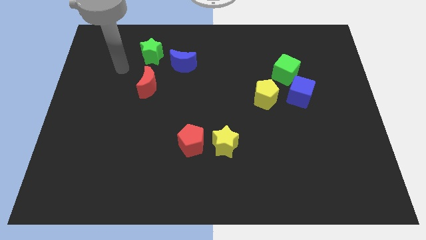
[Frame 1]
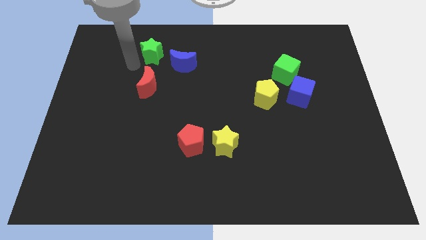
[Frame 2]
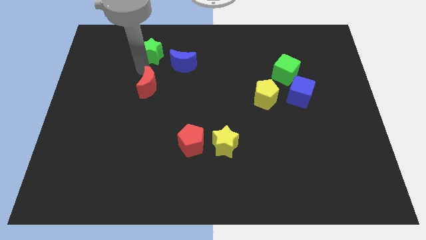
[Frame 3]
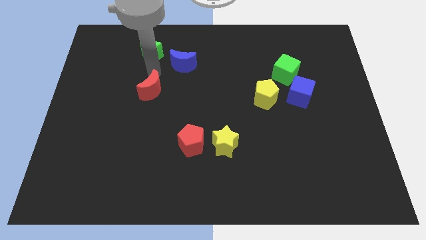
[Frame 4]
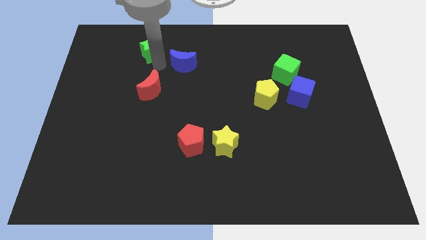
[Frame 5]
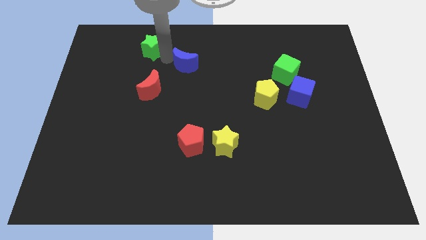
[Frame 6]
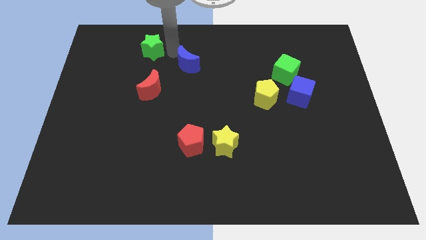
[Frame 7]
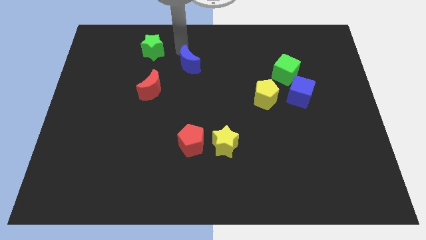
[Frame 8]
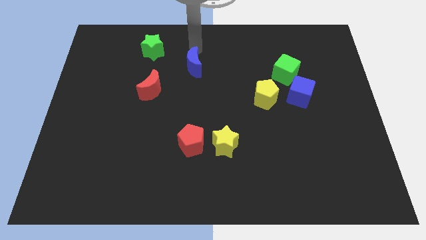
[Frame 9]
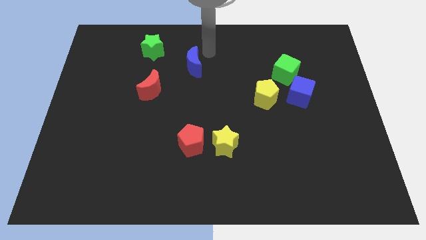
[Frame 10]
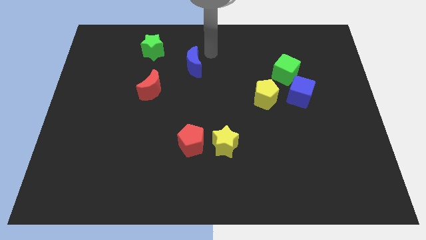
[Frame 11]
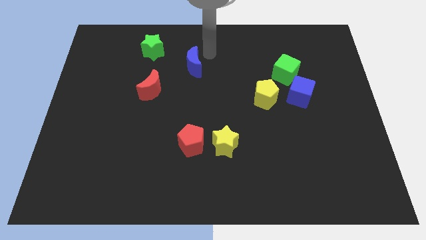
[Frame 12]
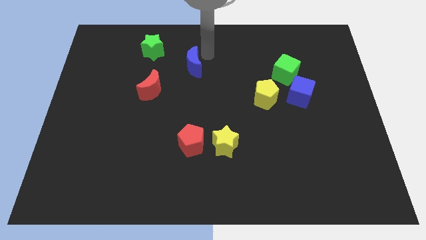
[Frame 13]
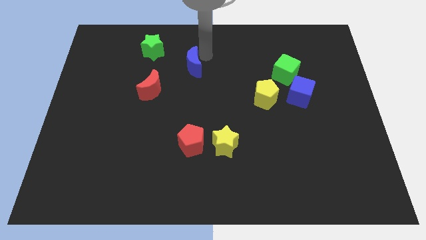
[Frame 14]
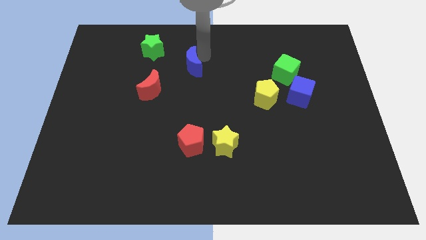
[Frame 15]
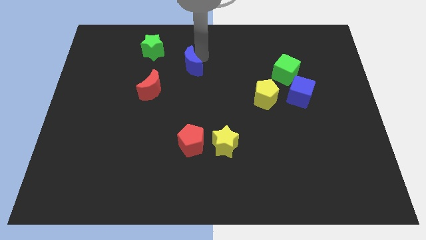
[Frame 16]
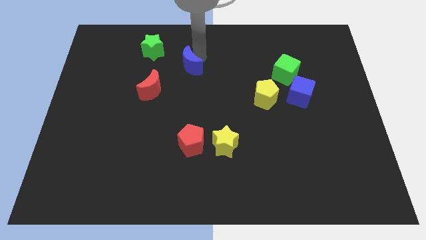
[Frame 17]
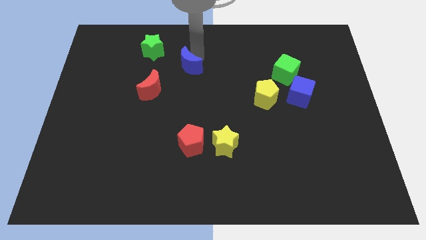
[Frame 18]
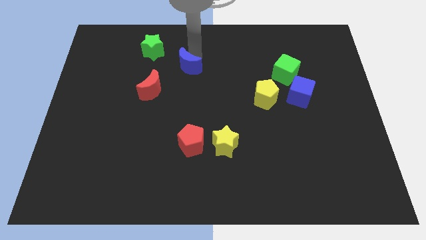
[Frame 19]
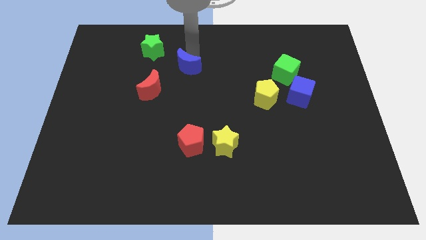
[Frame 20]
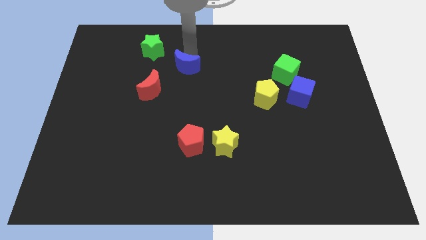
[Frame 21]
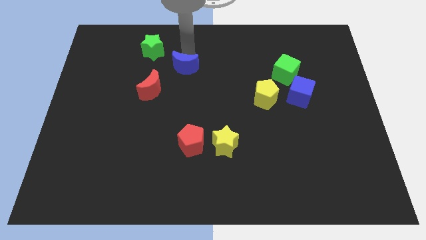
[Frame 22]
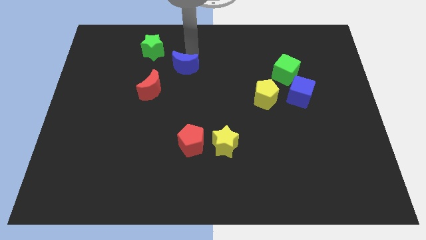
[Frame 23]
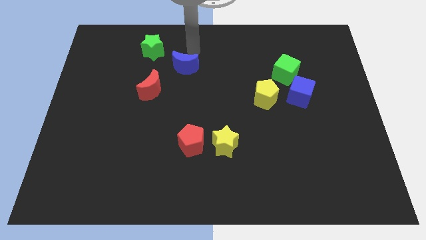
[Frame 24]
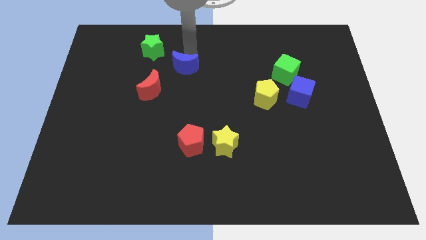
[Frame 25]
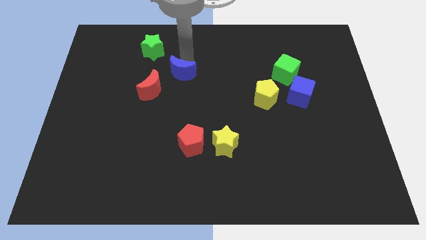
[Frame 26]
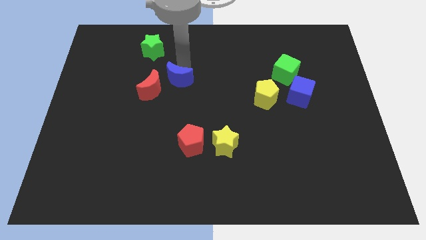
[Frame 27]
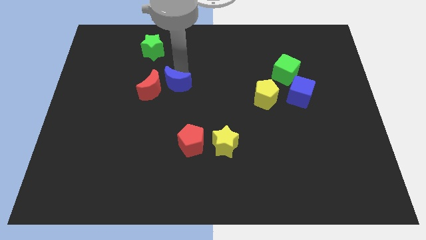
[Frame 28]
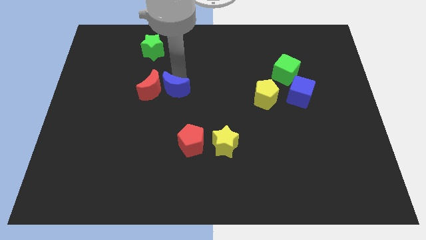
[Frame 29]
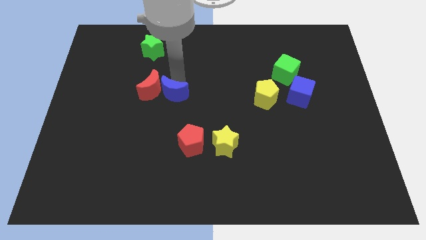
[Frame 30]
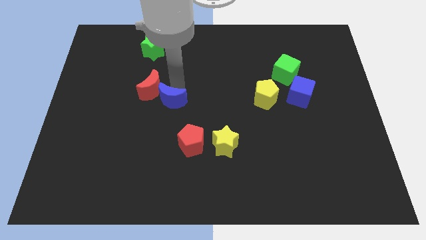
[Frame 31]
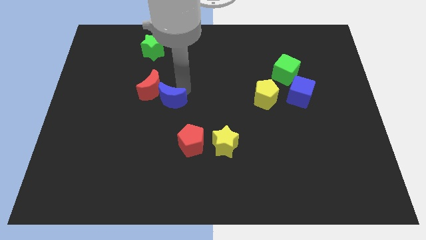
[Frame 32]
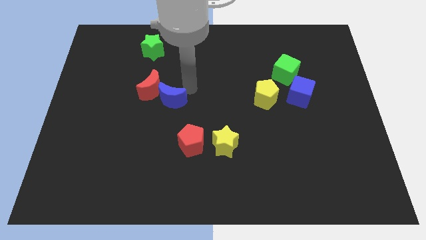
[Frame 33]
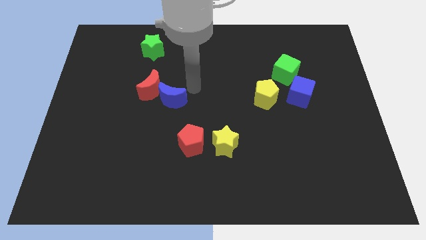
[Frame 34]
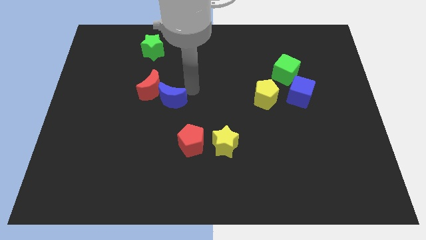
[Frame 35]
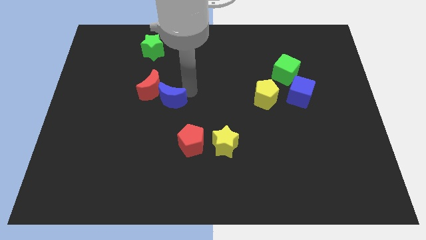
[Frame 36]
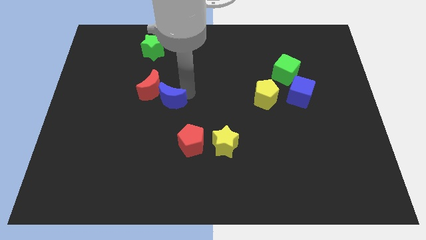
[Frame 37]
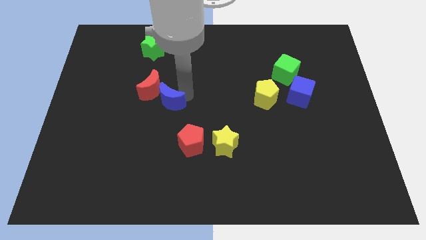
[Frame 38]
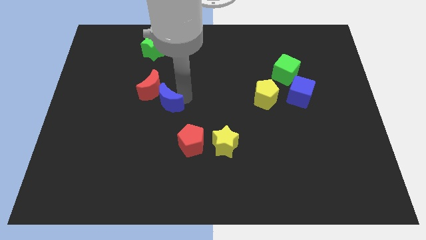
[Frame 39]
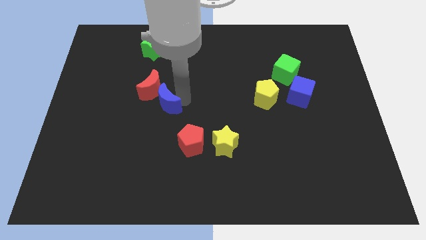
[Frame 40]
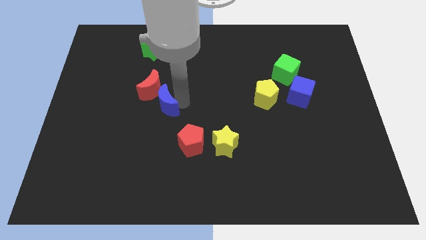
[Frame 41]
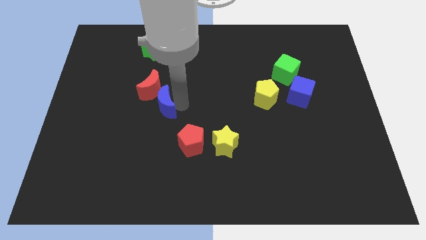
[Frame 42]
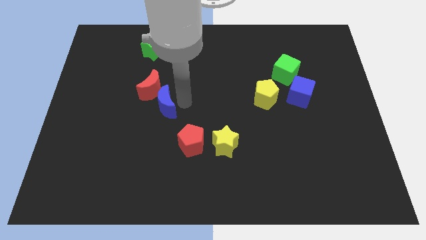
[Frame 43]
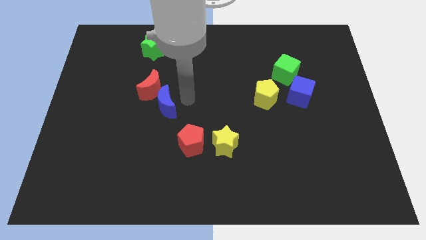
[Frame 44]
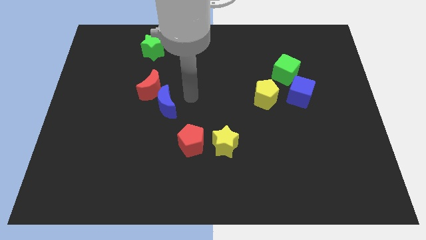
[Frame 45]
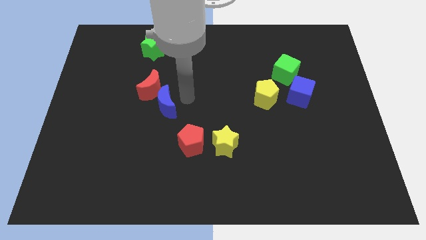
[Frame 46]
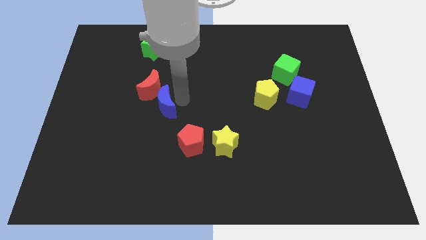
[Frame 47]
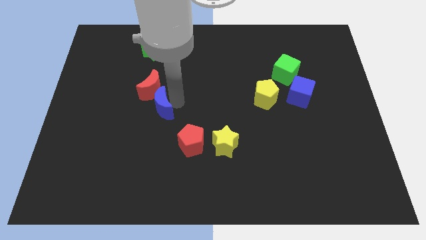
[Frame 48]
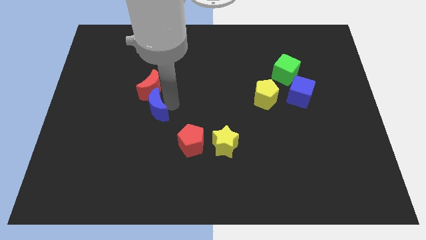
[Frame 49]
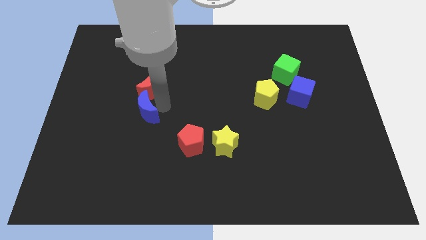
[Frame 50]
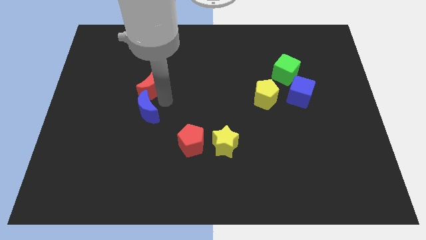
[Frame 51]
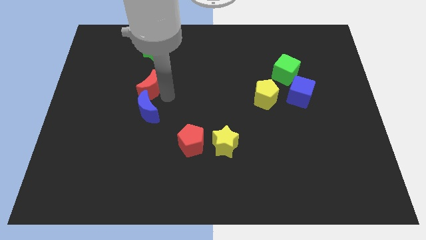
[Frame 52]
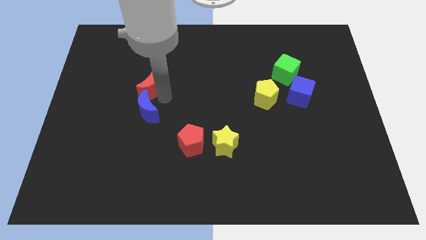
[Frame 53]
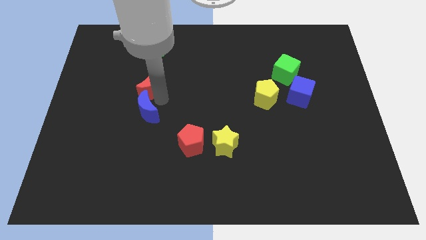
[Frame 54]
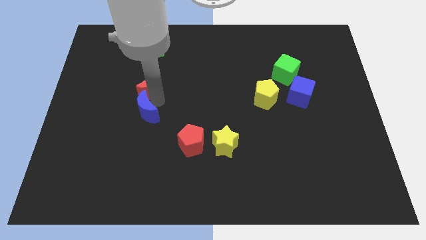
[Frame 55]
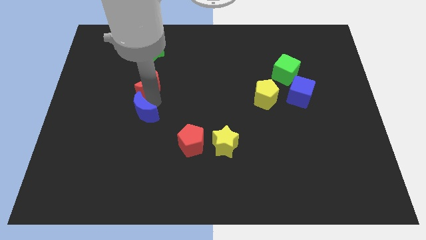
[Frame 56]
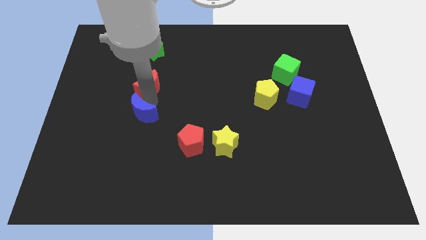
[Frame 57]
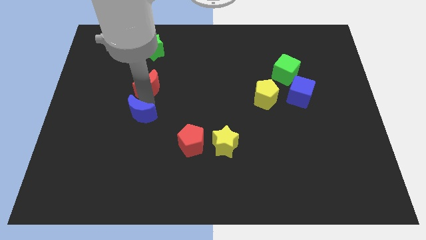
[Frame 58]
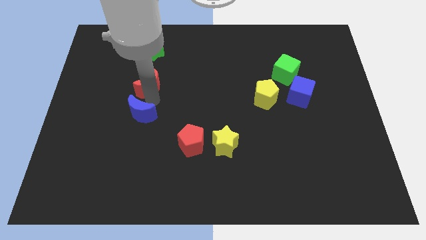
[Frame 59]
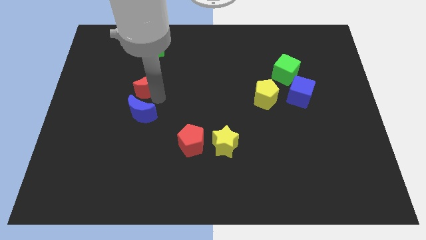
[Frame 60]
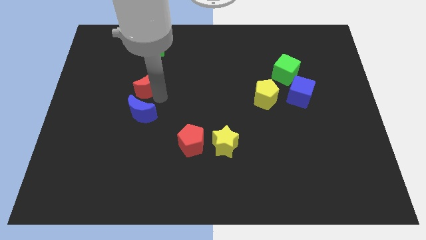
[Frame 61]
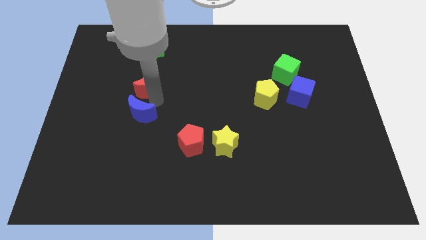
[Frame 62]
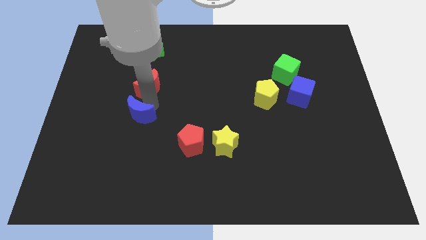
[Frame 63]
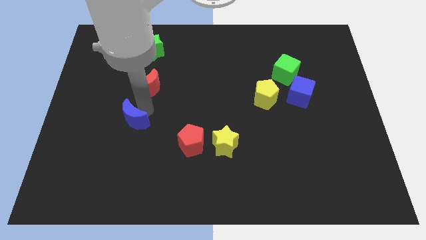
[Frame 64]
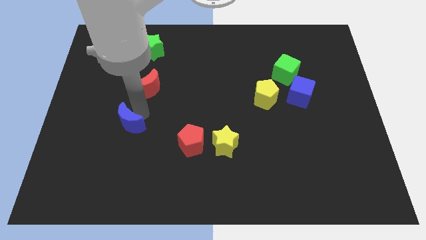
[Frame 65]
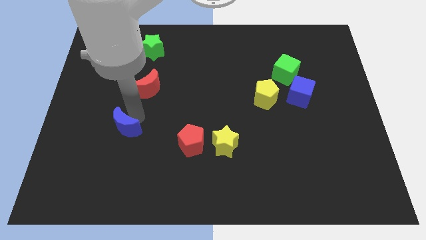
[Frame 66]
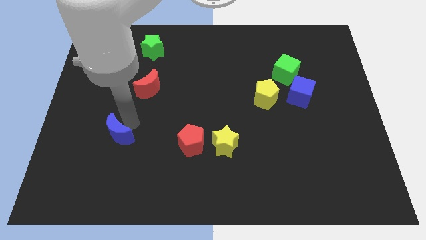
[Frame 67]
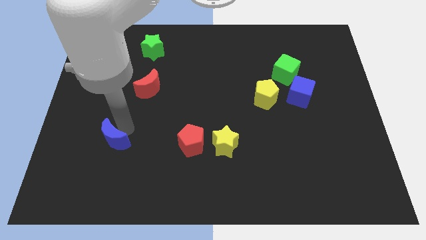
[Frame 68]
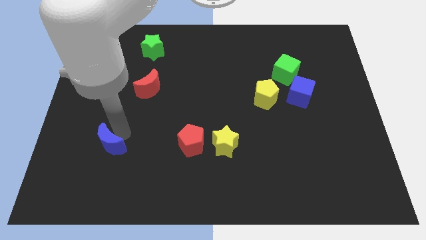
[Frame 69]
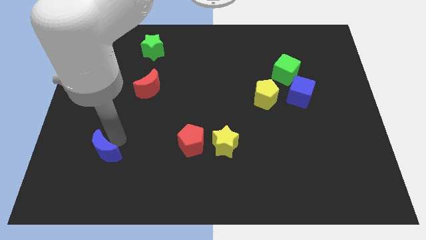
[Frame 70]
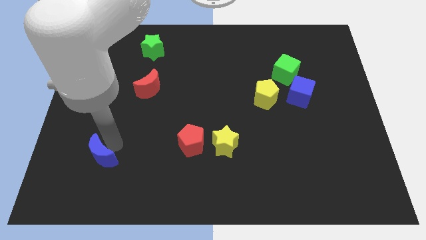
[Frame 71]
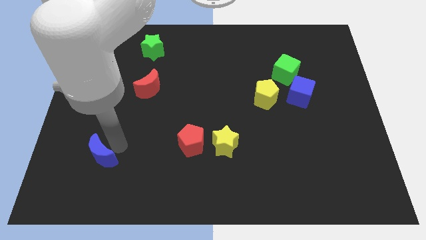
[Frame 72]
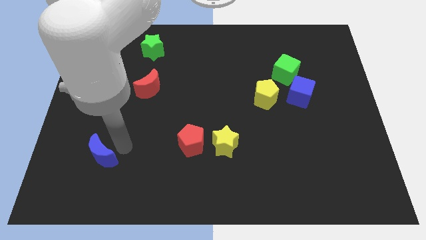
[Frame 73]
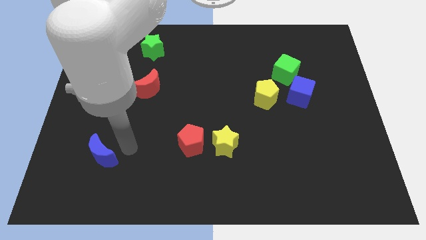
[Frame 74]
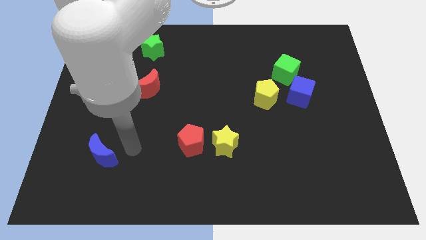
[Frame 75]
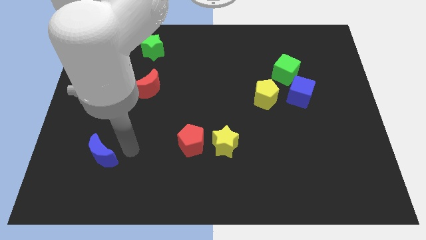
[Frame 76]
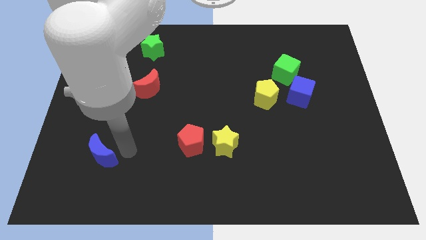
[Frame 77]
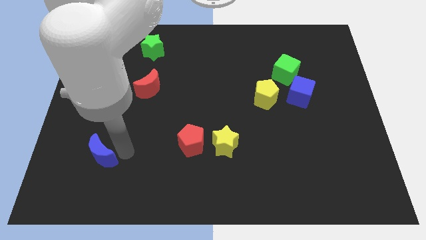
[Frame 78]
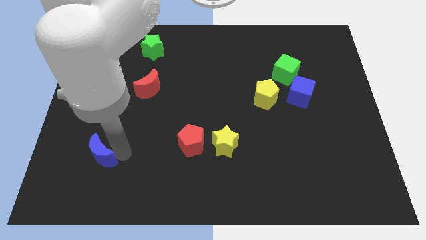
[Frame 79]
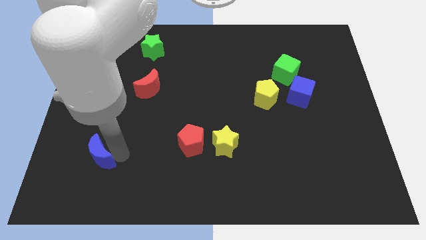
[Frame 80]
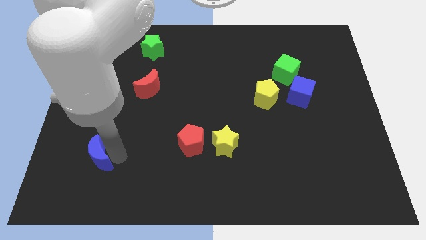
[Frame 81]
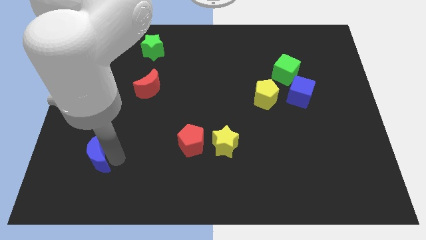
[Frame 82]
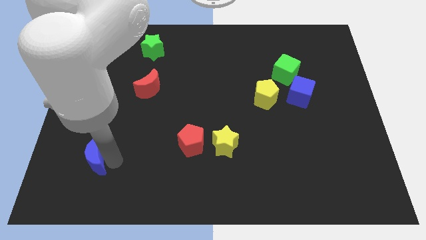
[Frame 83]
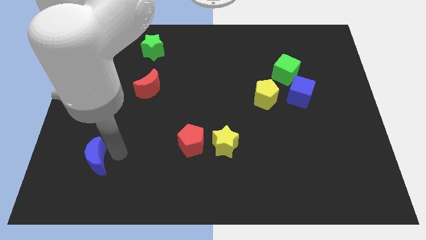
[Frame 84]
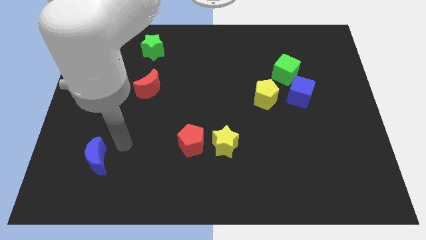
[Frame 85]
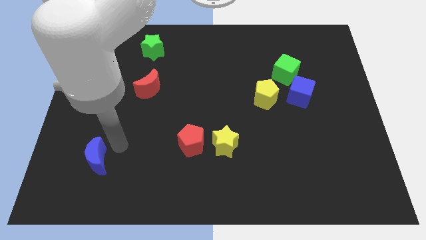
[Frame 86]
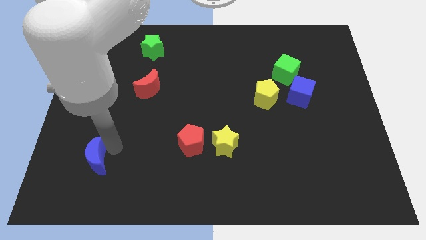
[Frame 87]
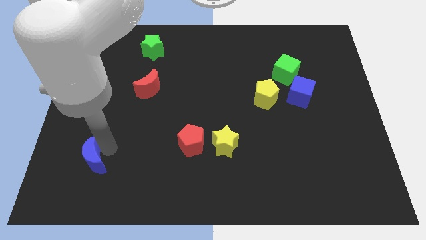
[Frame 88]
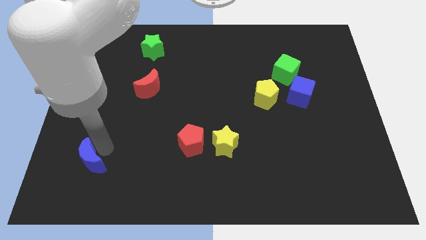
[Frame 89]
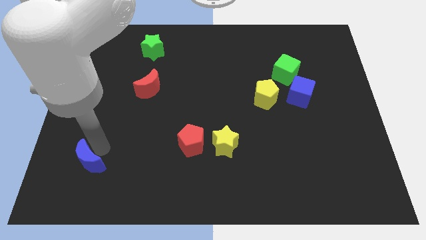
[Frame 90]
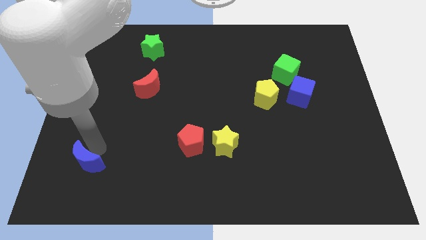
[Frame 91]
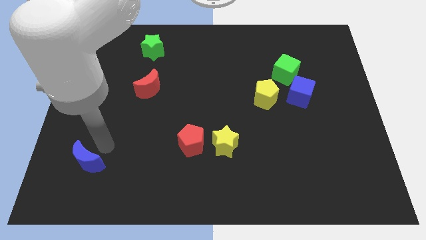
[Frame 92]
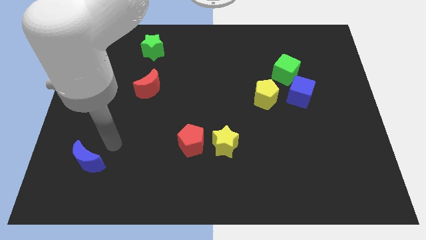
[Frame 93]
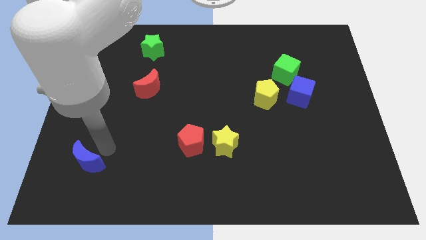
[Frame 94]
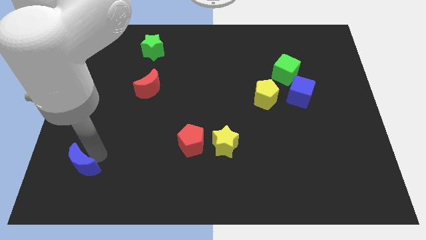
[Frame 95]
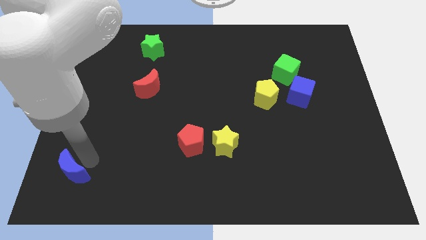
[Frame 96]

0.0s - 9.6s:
slide the blue moon to the bottom left of the board
